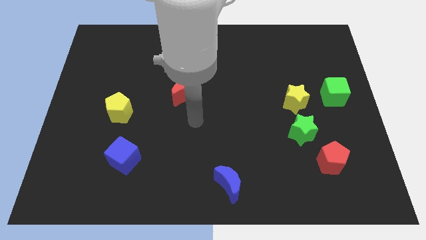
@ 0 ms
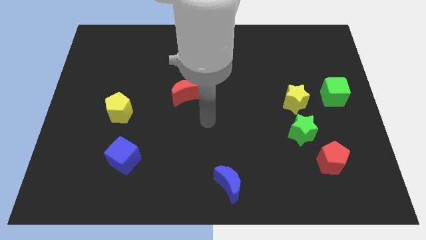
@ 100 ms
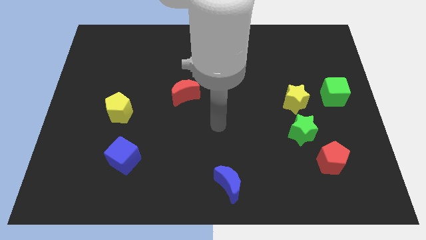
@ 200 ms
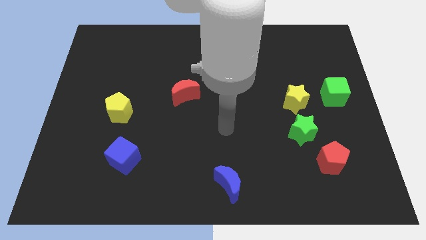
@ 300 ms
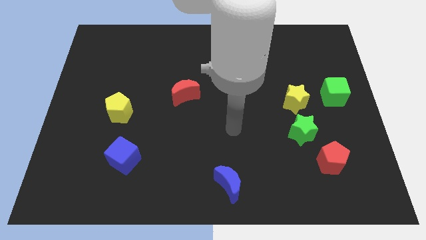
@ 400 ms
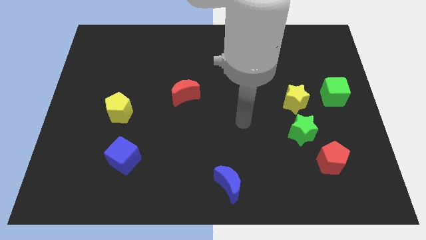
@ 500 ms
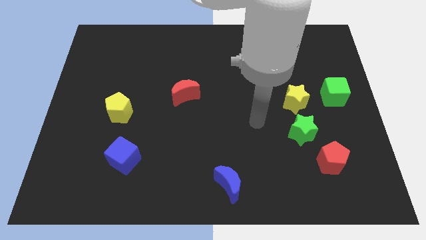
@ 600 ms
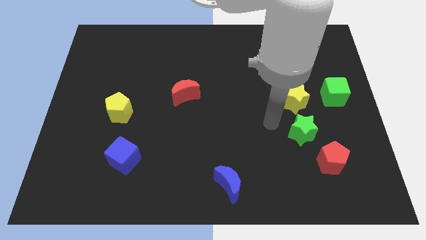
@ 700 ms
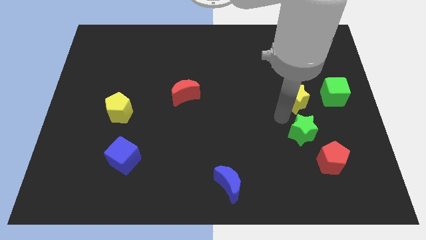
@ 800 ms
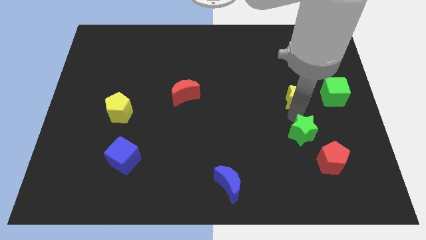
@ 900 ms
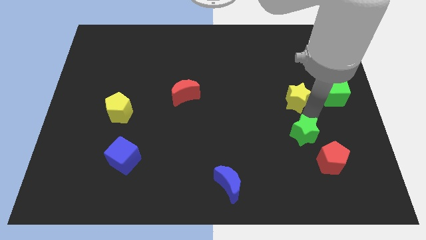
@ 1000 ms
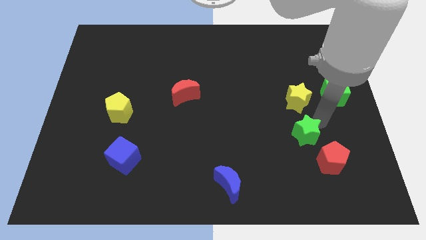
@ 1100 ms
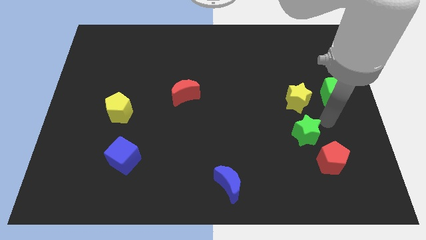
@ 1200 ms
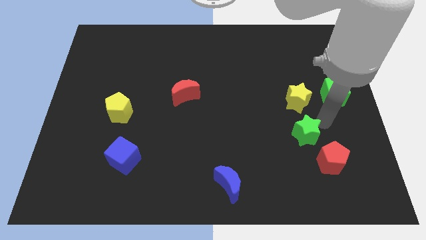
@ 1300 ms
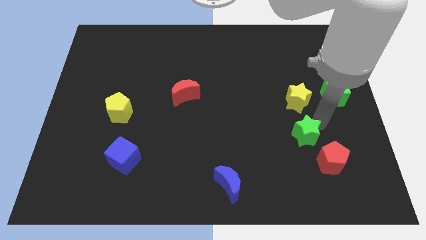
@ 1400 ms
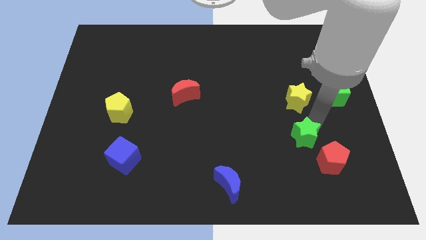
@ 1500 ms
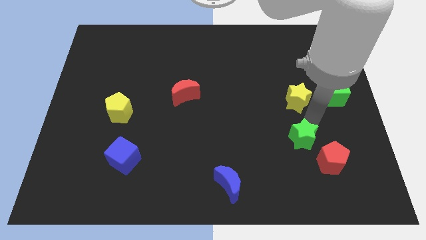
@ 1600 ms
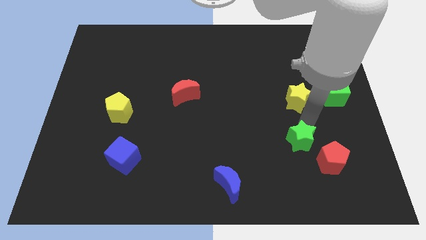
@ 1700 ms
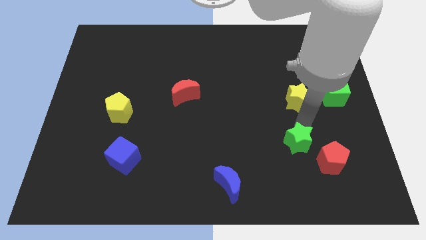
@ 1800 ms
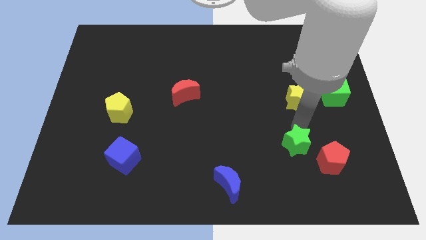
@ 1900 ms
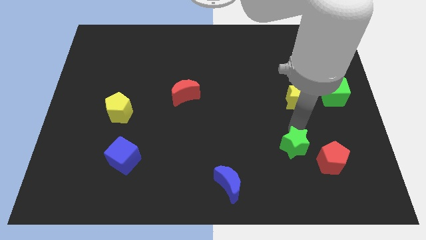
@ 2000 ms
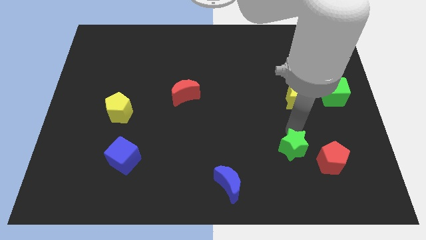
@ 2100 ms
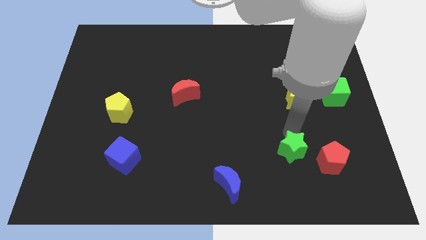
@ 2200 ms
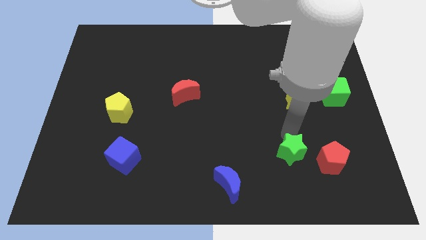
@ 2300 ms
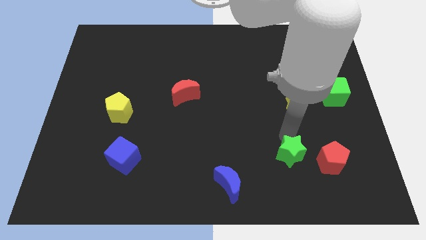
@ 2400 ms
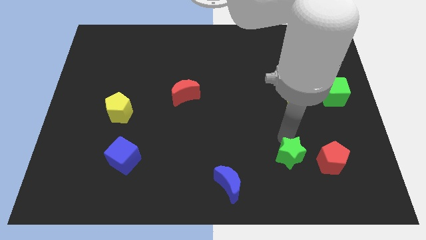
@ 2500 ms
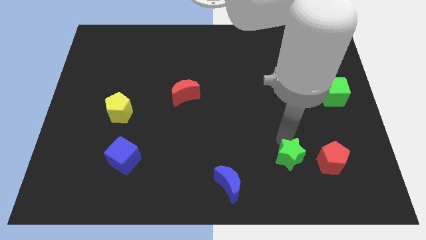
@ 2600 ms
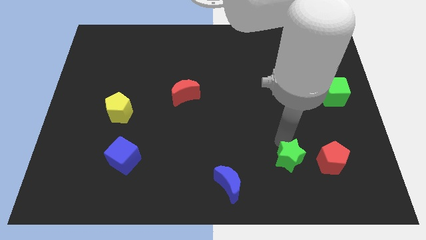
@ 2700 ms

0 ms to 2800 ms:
move the green star away from the yellow star and red pentagon

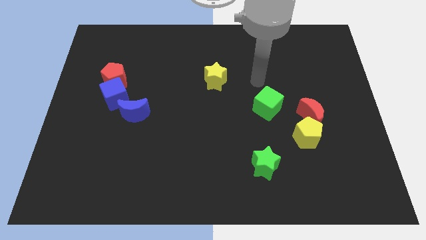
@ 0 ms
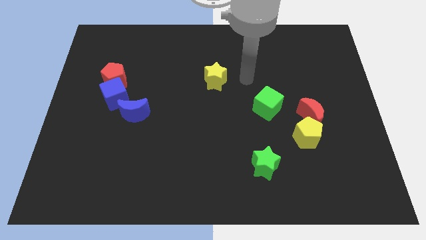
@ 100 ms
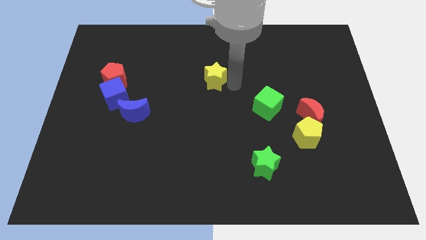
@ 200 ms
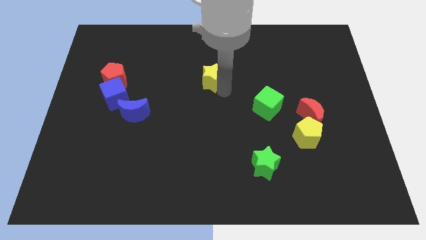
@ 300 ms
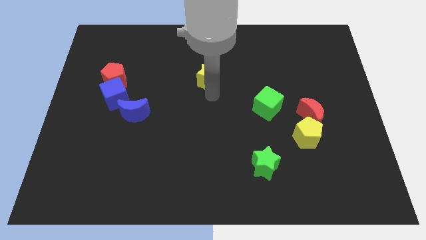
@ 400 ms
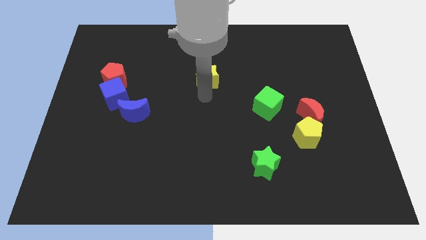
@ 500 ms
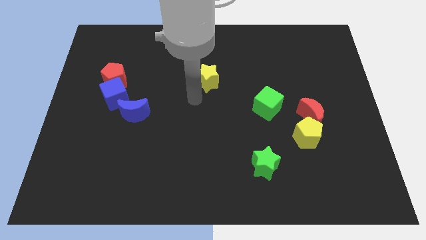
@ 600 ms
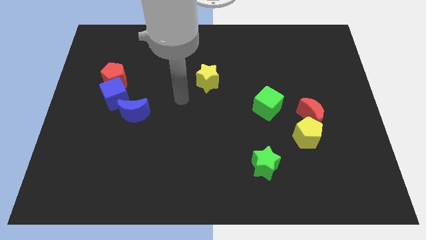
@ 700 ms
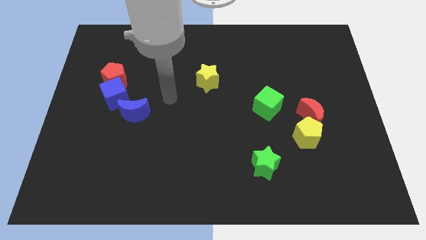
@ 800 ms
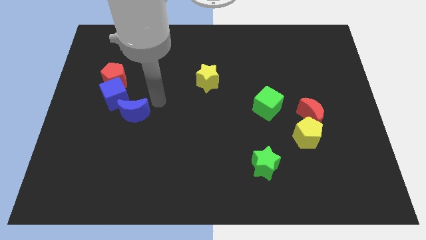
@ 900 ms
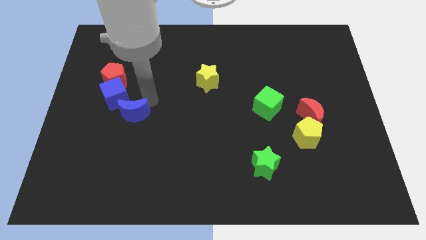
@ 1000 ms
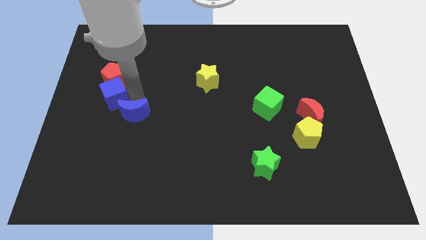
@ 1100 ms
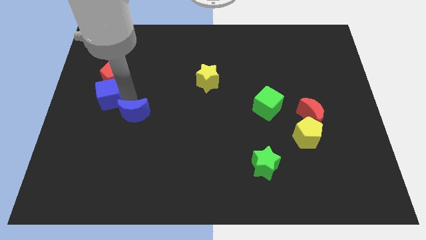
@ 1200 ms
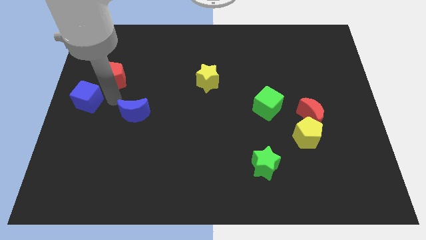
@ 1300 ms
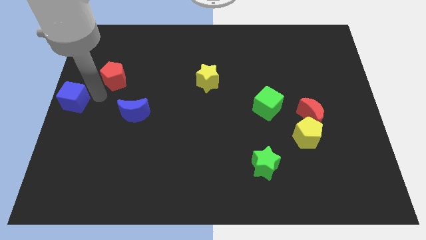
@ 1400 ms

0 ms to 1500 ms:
move the red pentagon away from the blue cube

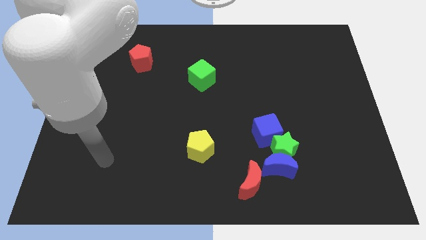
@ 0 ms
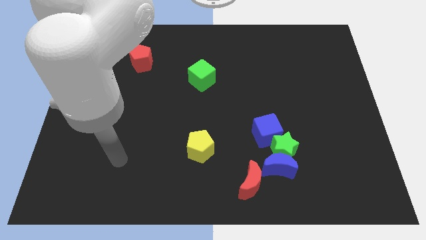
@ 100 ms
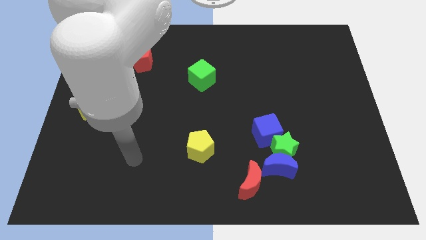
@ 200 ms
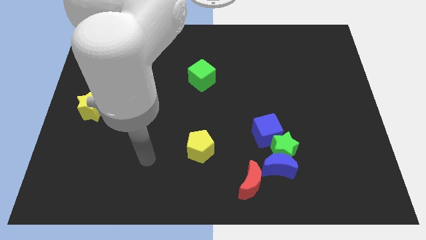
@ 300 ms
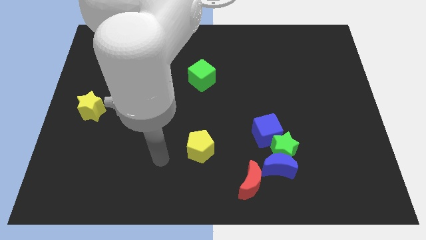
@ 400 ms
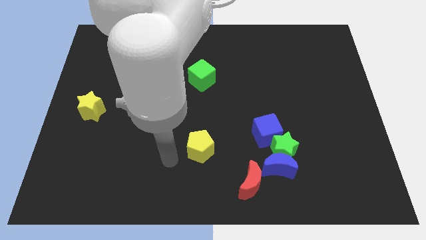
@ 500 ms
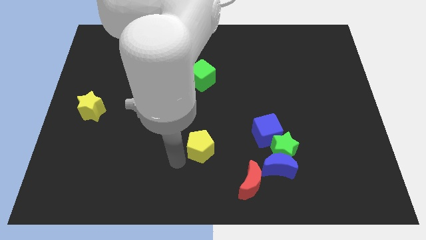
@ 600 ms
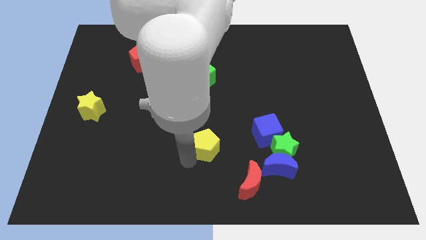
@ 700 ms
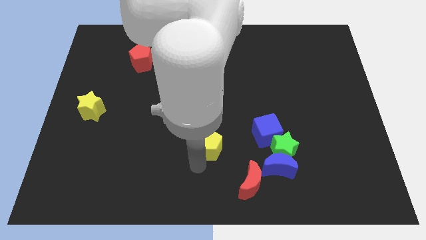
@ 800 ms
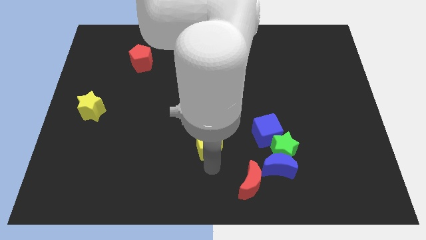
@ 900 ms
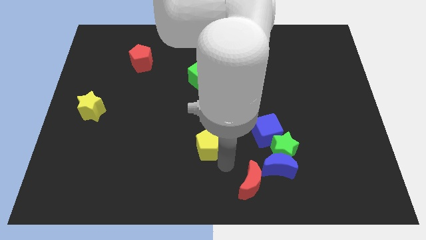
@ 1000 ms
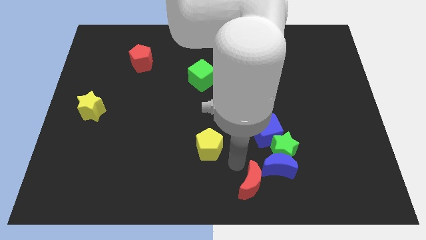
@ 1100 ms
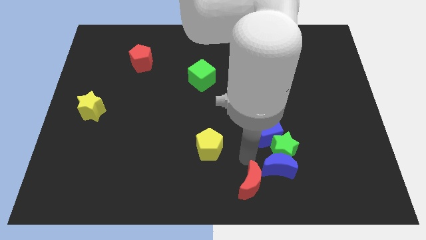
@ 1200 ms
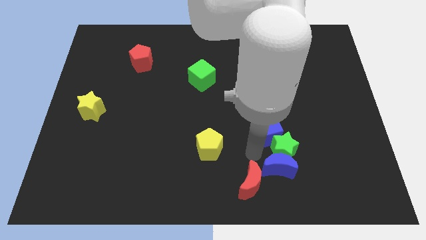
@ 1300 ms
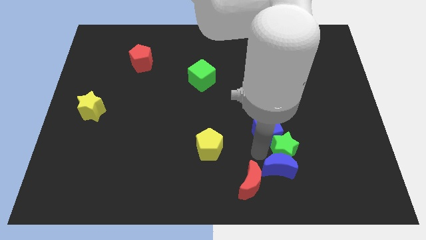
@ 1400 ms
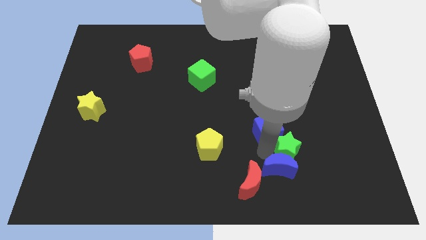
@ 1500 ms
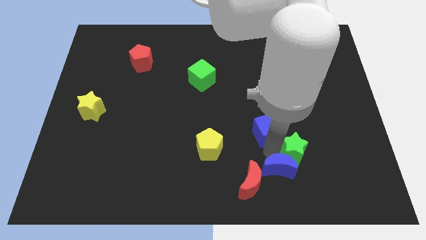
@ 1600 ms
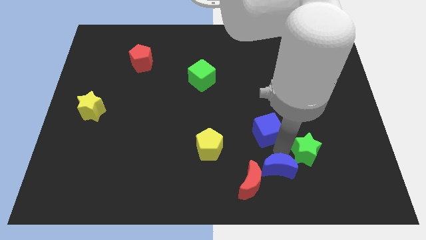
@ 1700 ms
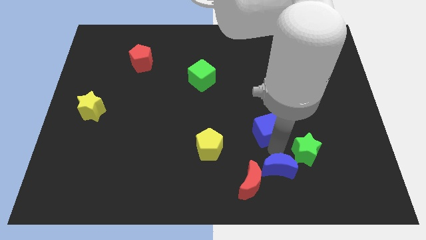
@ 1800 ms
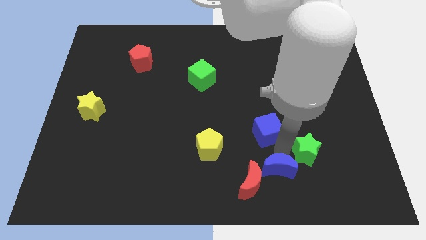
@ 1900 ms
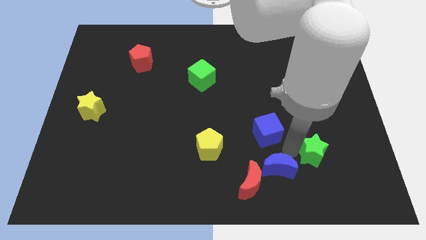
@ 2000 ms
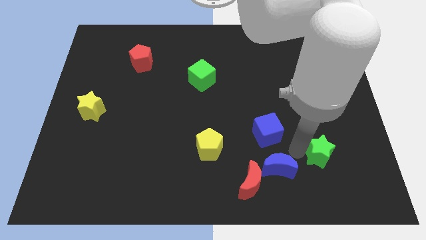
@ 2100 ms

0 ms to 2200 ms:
move the green star away from the blue moon and blue cube

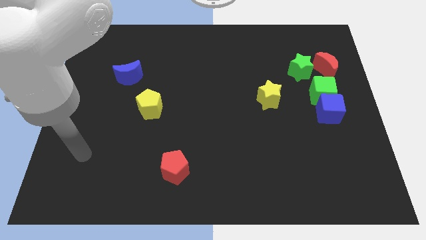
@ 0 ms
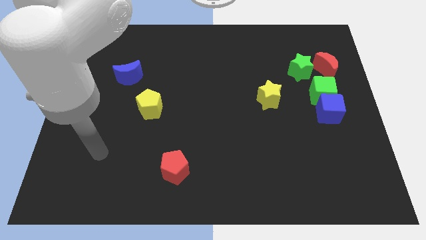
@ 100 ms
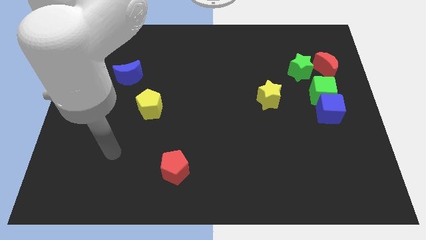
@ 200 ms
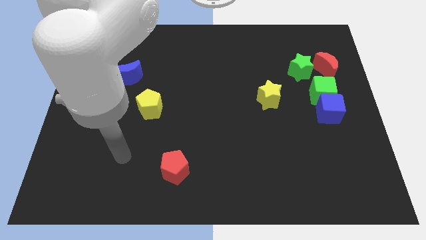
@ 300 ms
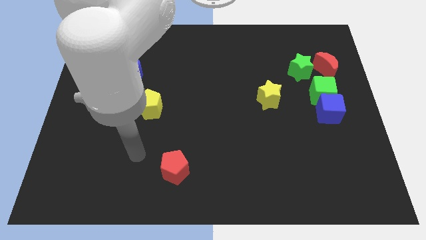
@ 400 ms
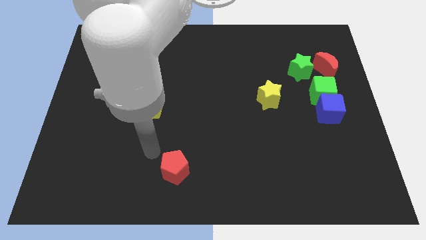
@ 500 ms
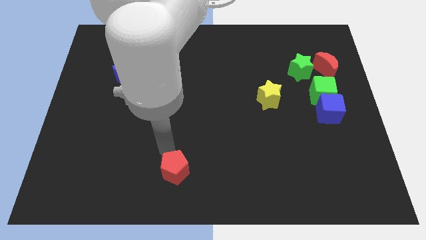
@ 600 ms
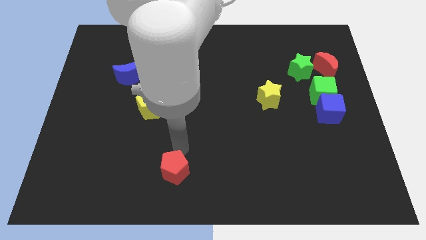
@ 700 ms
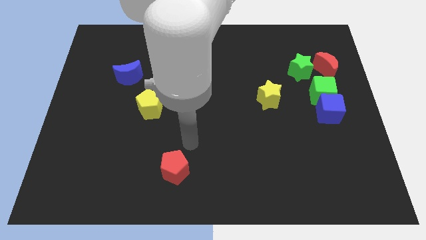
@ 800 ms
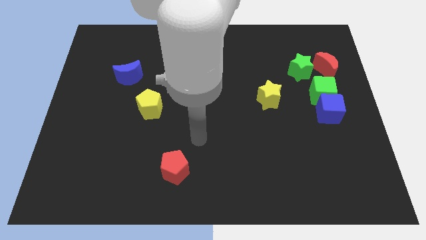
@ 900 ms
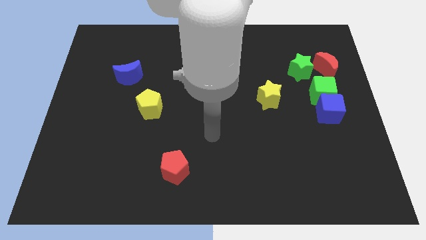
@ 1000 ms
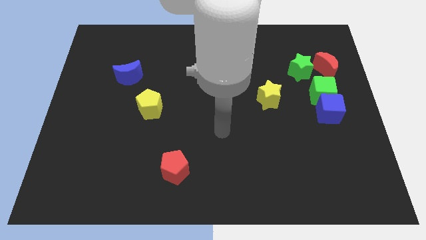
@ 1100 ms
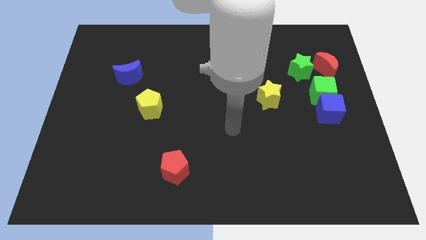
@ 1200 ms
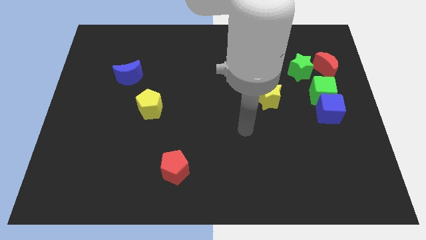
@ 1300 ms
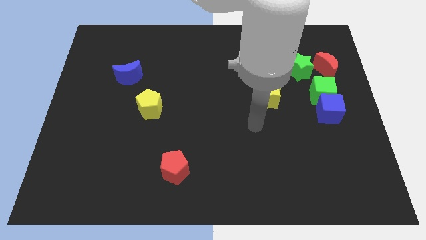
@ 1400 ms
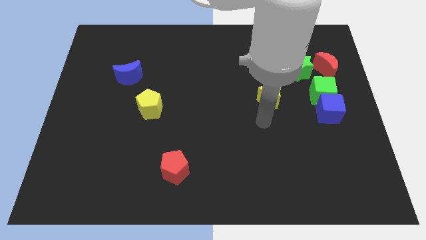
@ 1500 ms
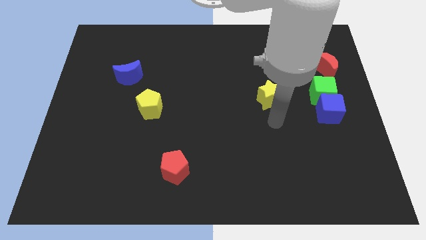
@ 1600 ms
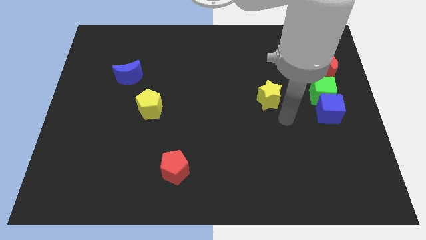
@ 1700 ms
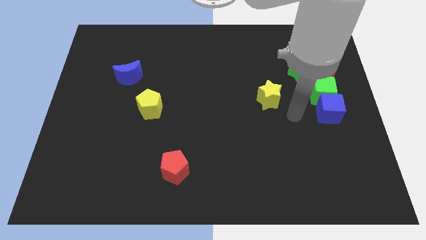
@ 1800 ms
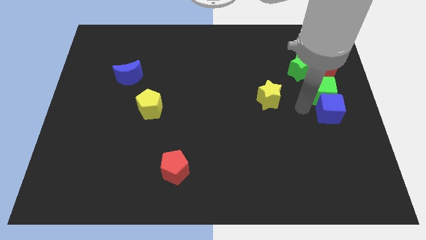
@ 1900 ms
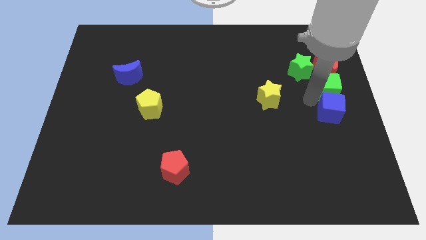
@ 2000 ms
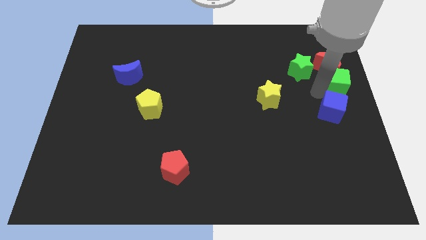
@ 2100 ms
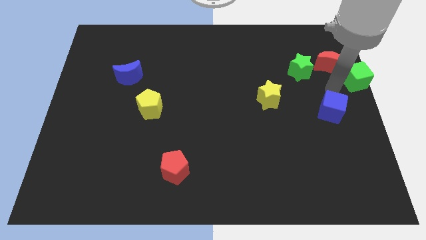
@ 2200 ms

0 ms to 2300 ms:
move the blue cube away from the green cube

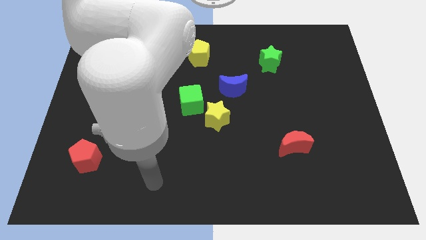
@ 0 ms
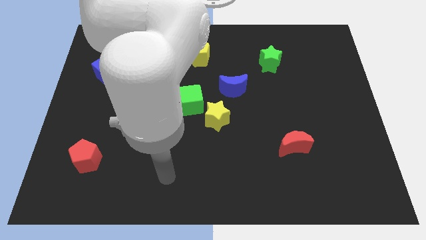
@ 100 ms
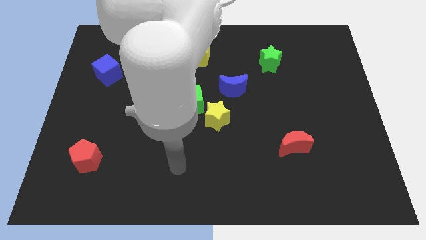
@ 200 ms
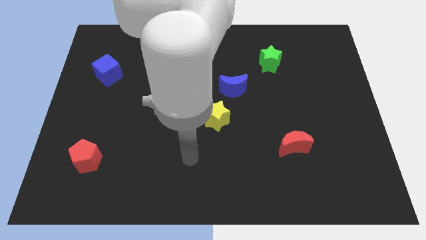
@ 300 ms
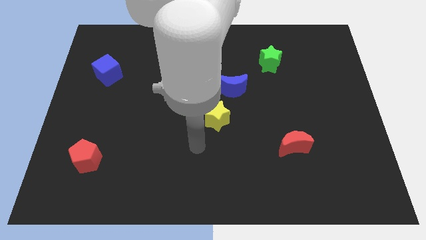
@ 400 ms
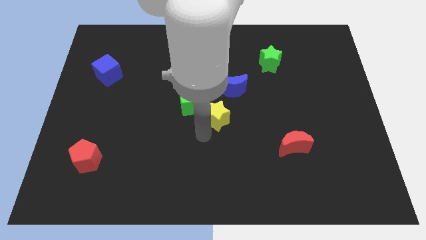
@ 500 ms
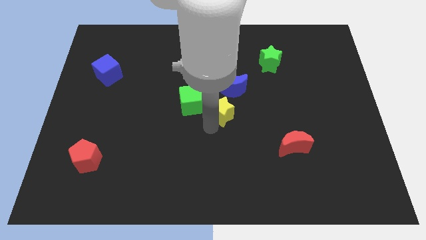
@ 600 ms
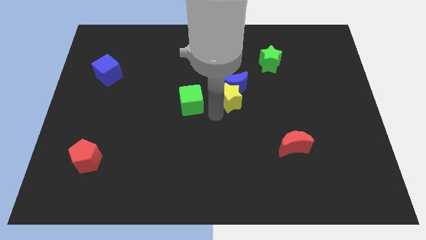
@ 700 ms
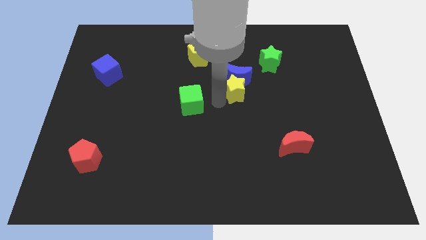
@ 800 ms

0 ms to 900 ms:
pull the green cube apart from the yellow star
